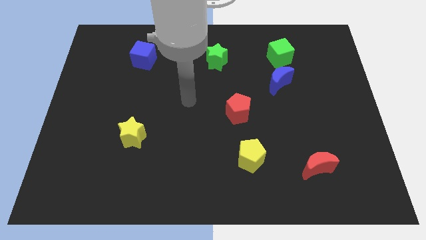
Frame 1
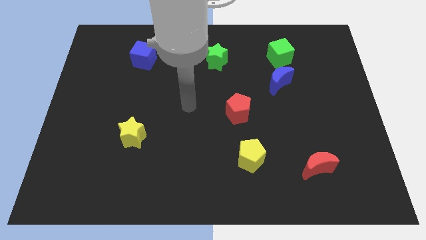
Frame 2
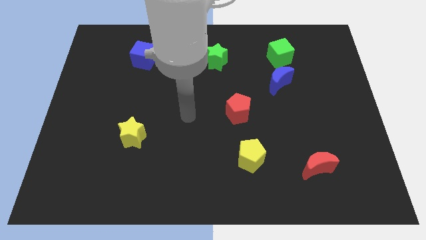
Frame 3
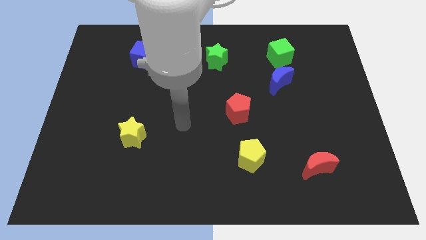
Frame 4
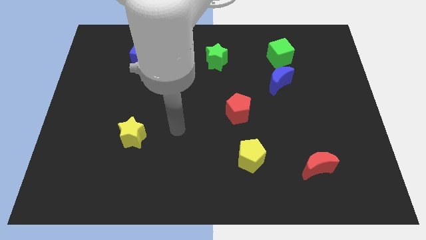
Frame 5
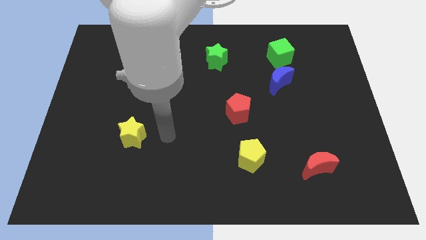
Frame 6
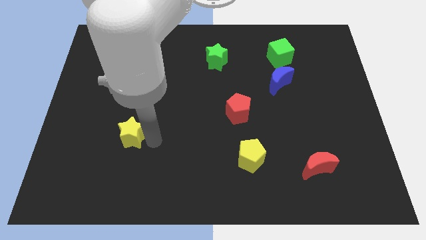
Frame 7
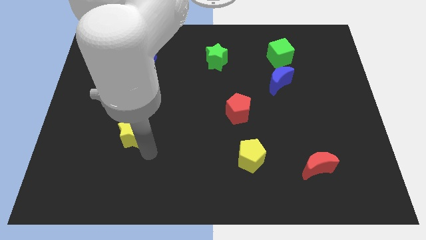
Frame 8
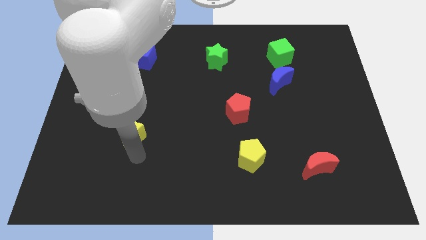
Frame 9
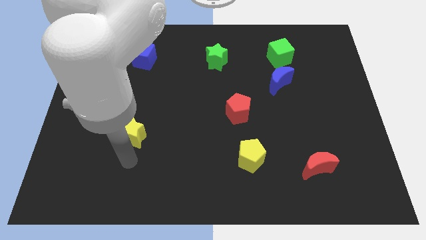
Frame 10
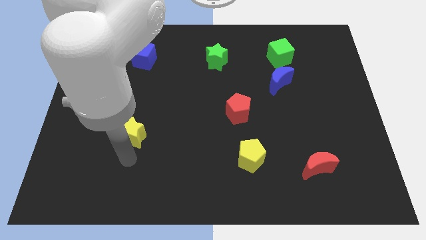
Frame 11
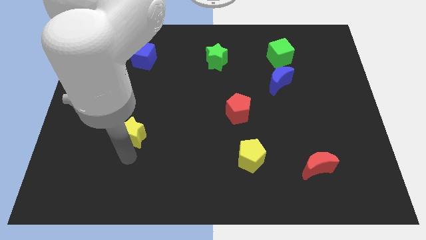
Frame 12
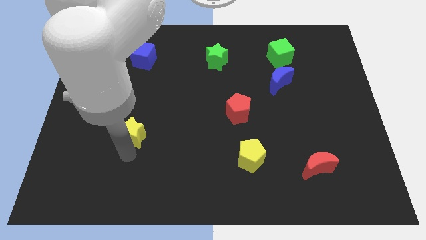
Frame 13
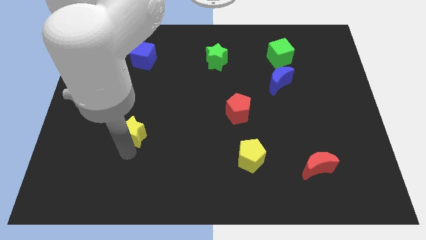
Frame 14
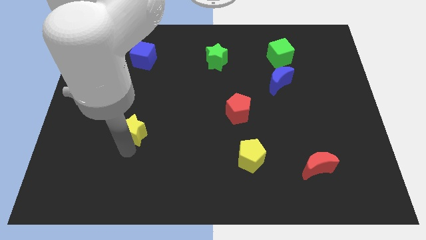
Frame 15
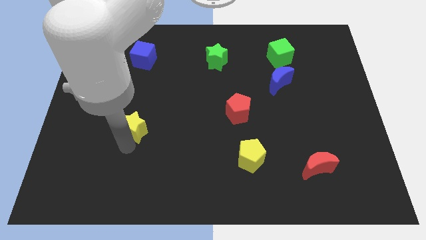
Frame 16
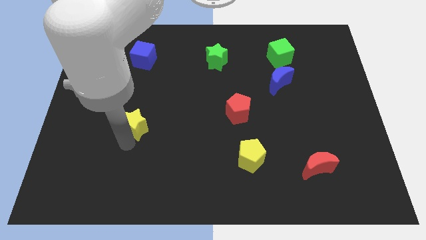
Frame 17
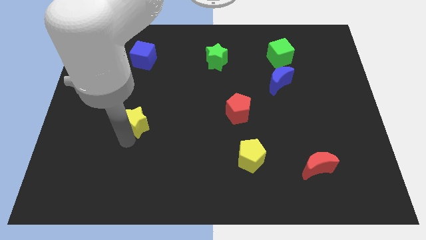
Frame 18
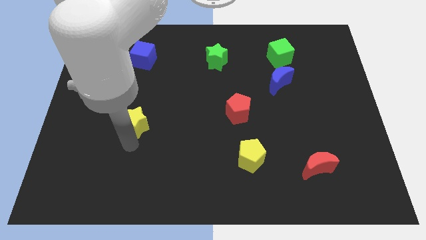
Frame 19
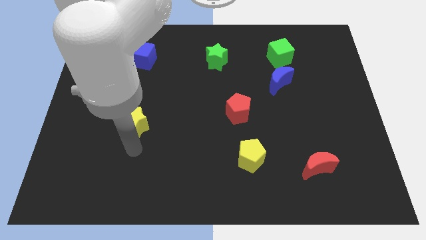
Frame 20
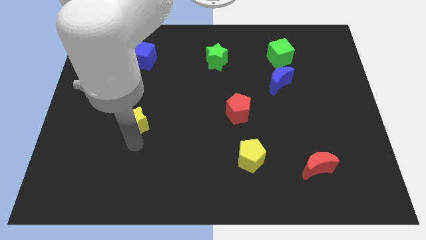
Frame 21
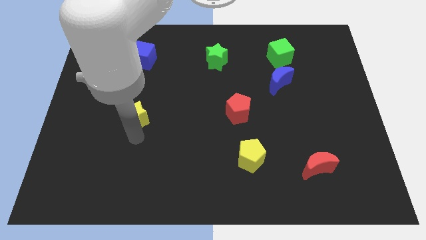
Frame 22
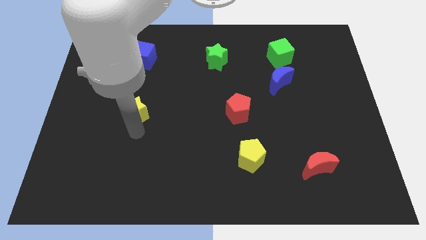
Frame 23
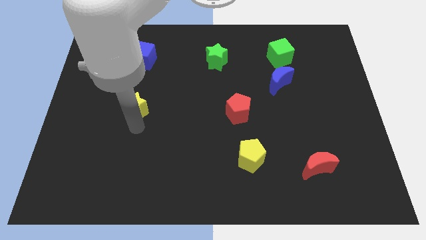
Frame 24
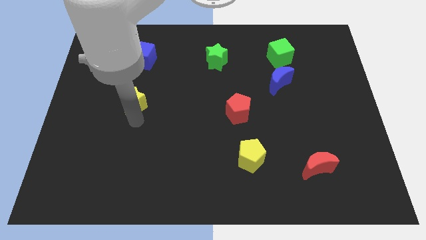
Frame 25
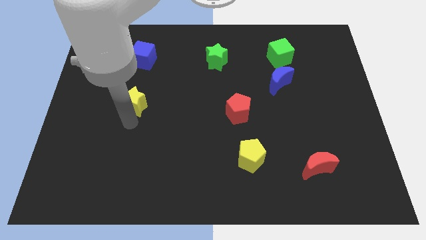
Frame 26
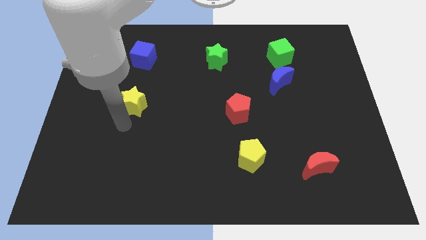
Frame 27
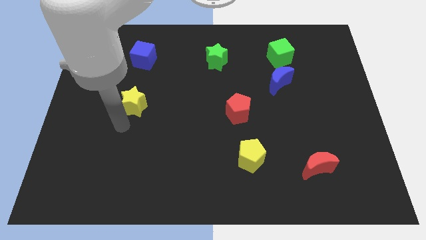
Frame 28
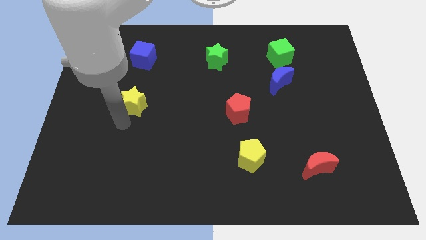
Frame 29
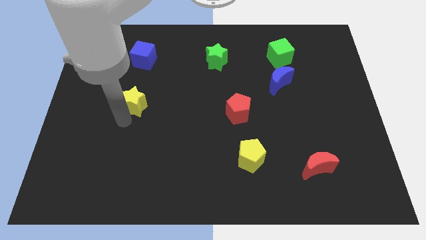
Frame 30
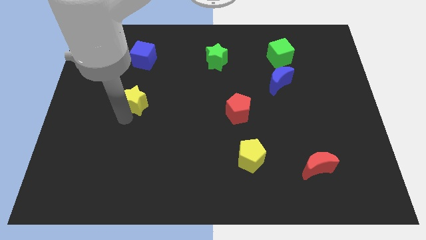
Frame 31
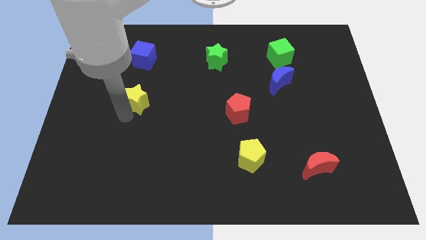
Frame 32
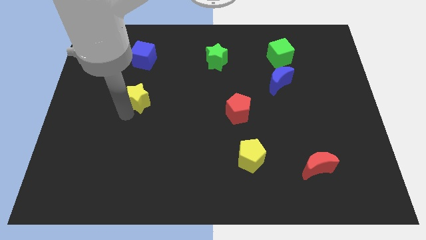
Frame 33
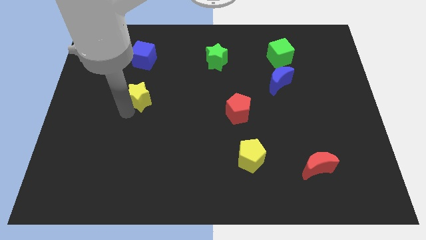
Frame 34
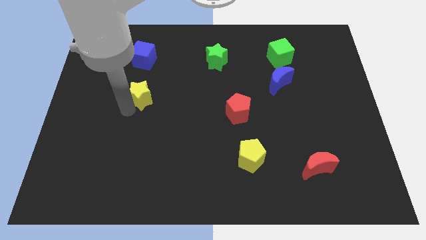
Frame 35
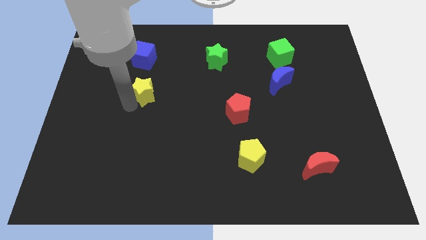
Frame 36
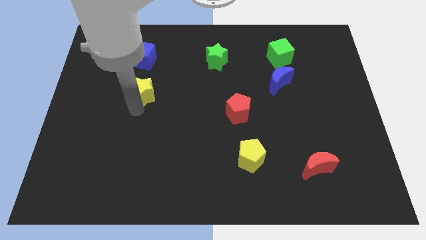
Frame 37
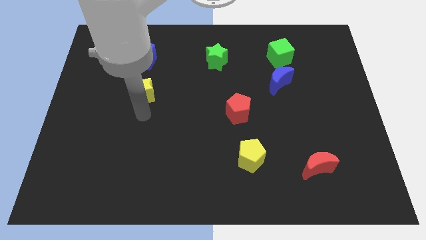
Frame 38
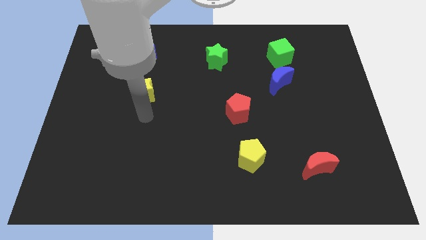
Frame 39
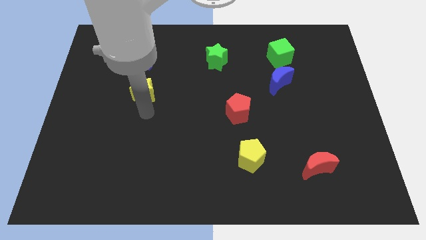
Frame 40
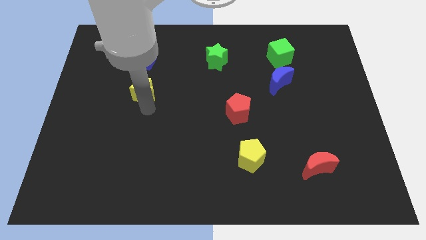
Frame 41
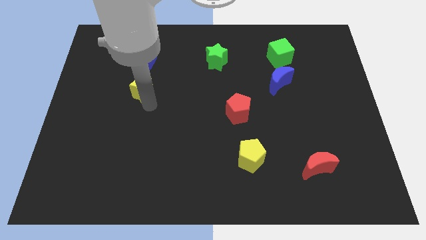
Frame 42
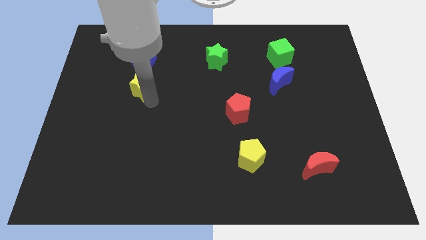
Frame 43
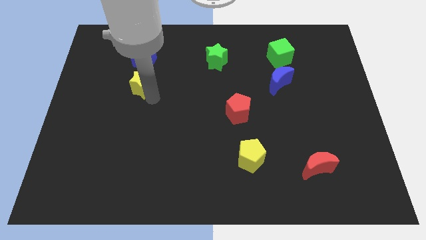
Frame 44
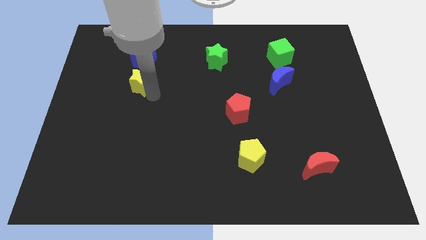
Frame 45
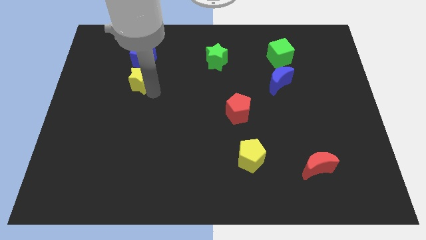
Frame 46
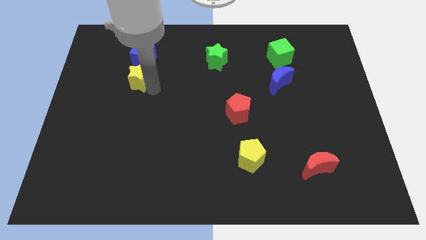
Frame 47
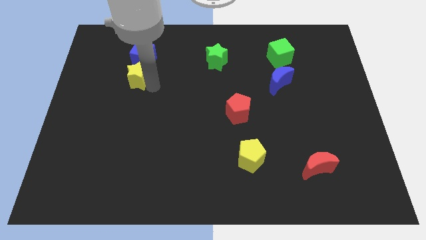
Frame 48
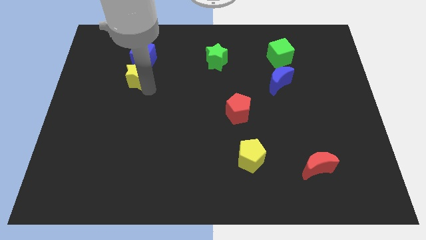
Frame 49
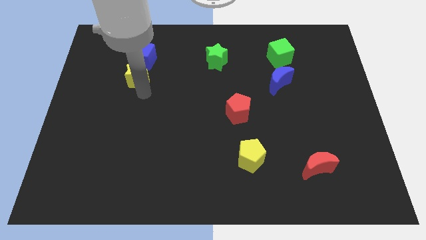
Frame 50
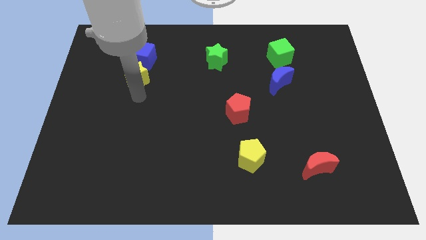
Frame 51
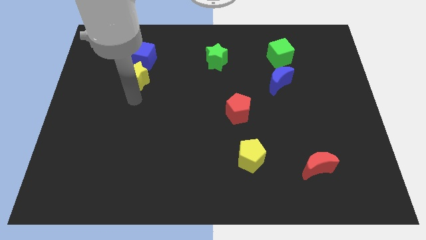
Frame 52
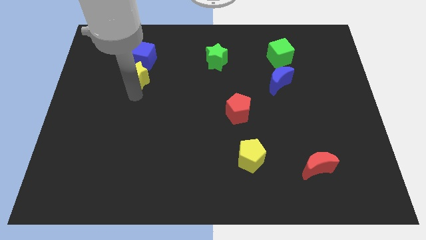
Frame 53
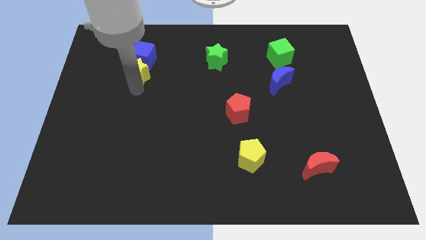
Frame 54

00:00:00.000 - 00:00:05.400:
put the yellow star close to the blue cube

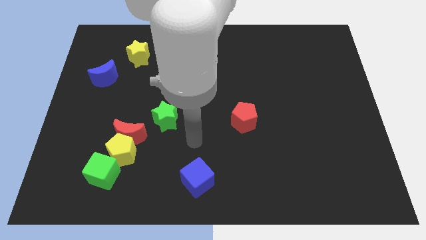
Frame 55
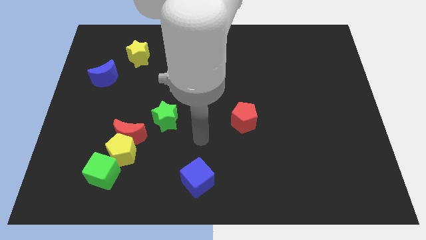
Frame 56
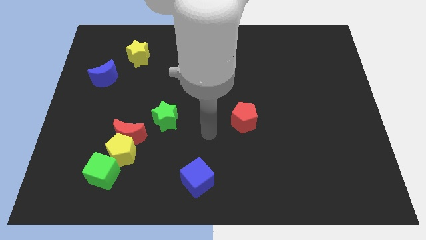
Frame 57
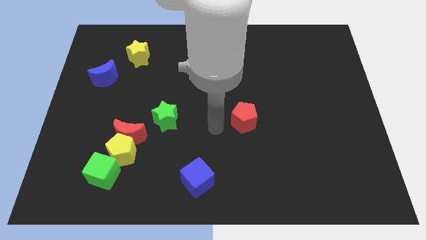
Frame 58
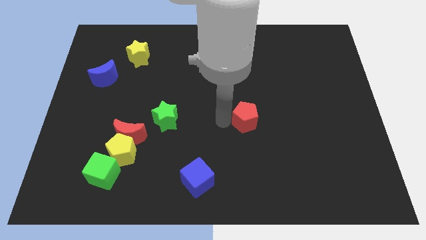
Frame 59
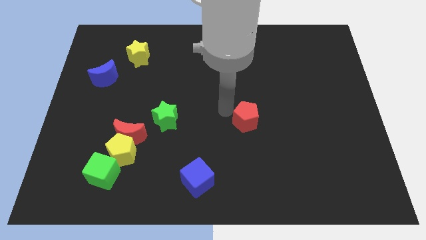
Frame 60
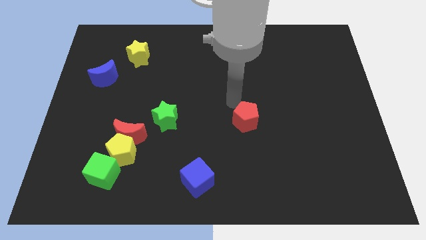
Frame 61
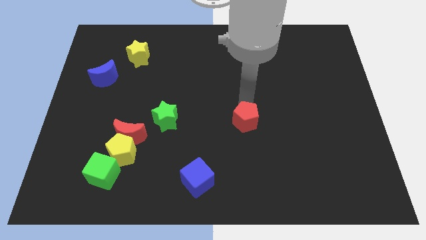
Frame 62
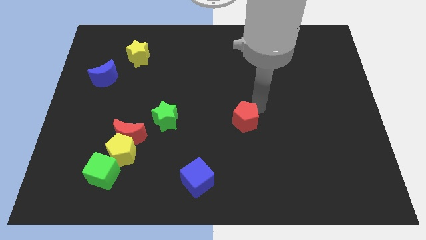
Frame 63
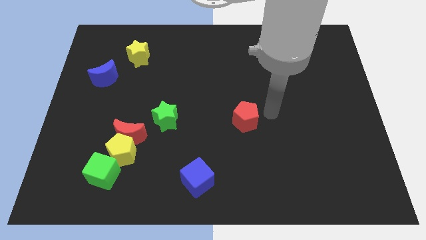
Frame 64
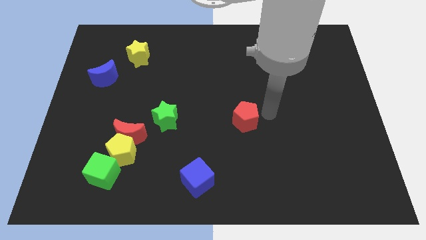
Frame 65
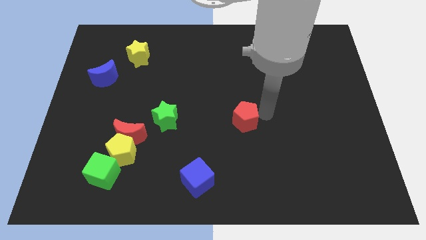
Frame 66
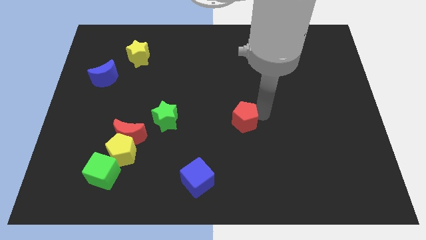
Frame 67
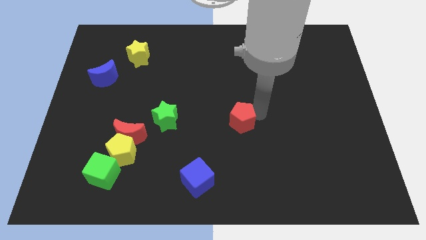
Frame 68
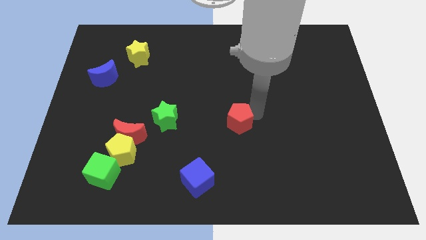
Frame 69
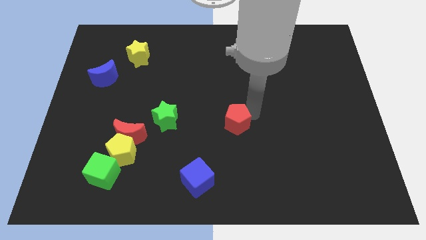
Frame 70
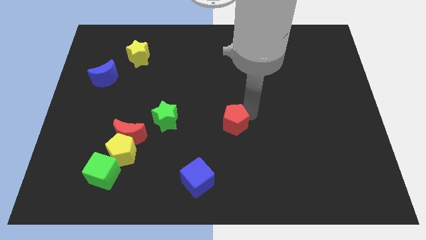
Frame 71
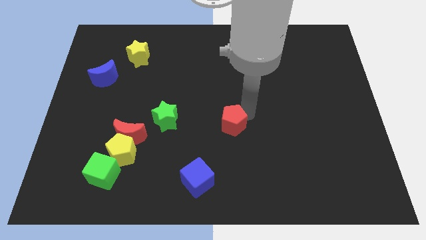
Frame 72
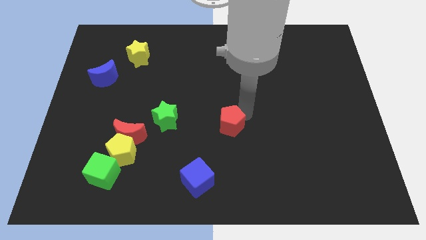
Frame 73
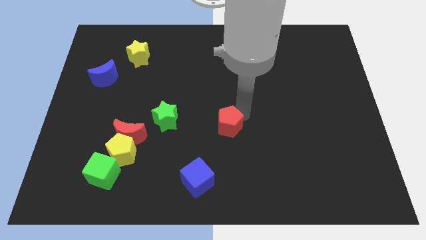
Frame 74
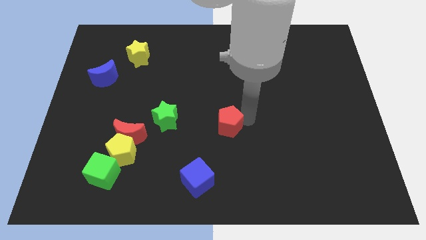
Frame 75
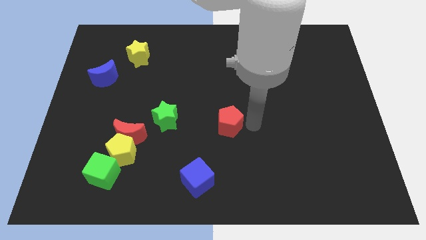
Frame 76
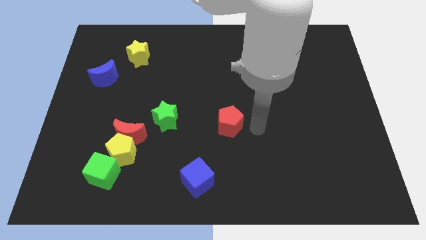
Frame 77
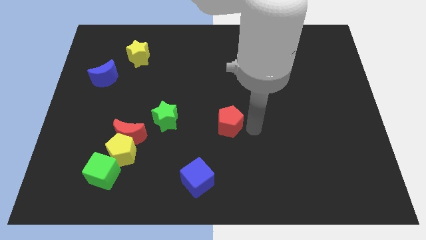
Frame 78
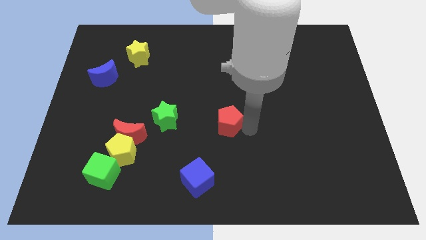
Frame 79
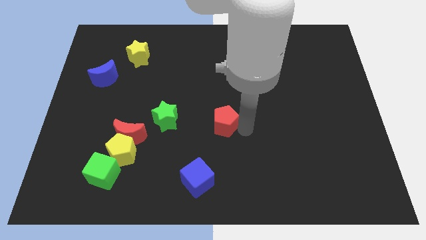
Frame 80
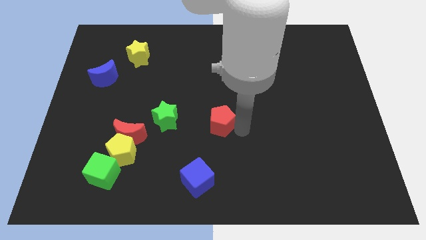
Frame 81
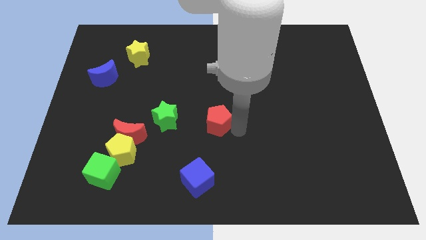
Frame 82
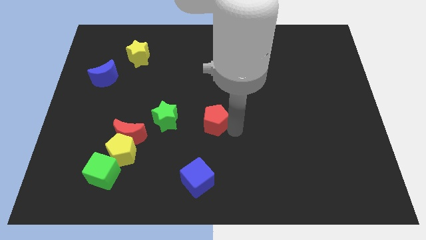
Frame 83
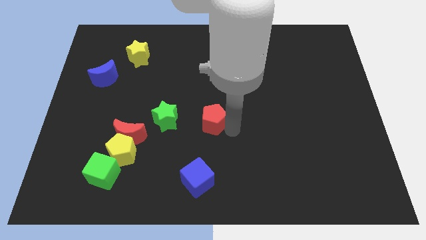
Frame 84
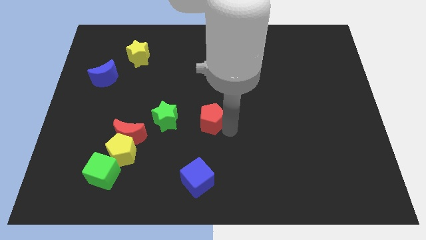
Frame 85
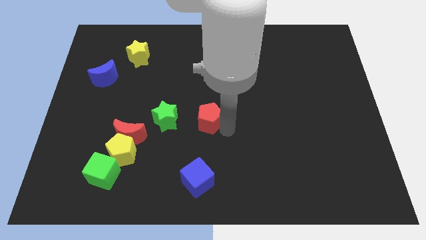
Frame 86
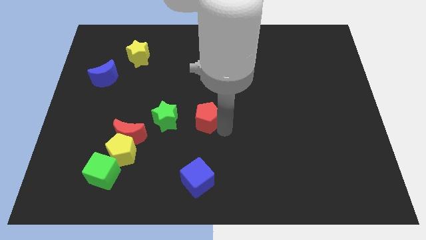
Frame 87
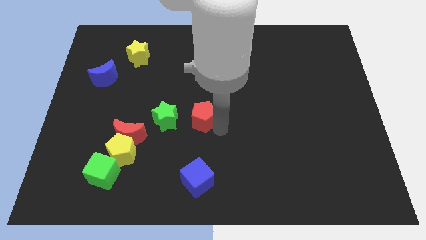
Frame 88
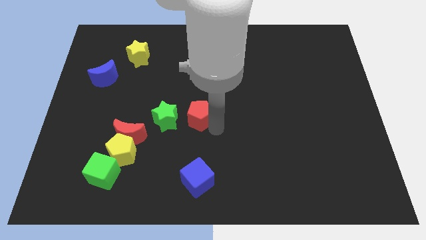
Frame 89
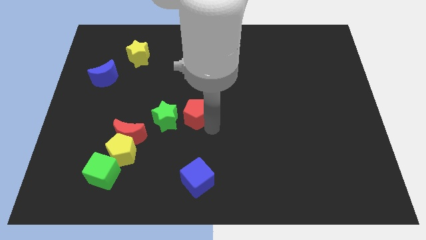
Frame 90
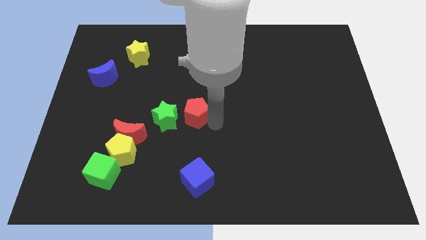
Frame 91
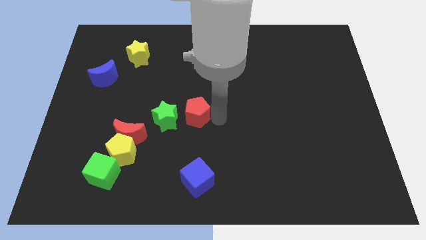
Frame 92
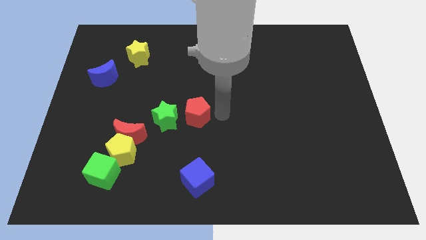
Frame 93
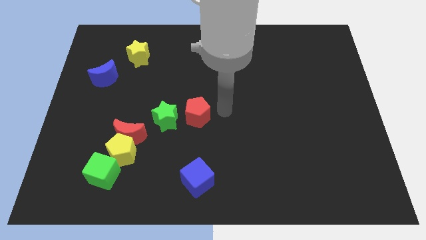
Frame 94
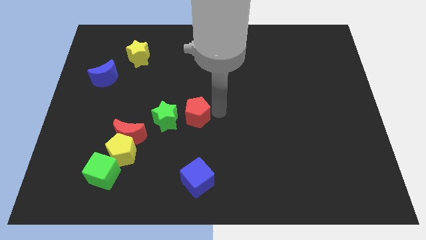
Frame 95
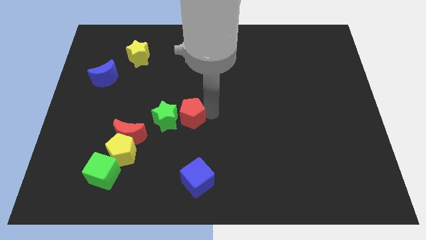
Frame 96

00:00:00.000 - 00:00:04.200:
slide the red pentagon to the green star
